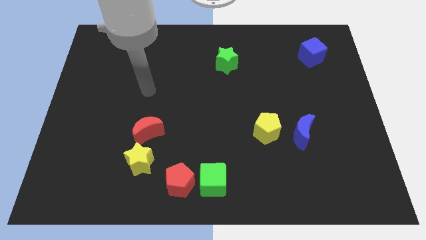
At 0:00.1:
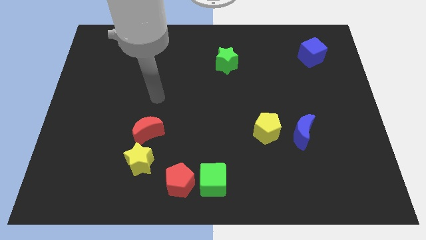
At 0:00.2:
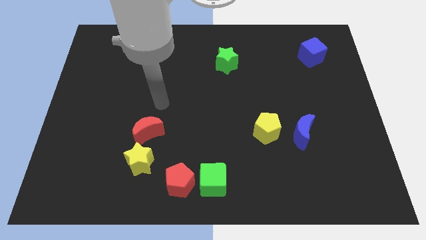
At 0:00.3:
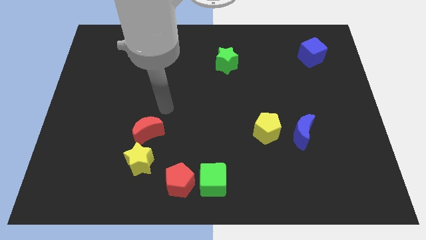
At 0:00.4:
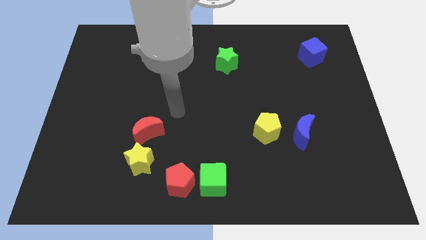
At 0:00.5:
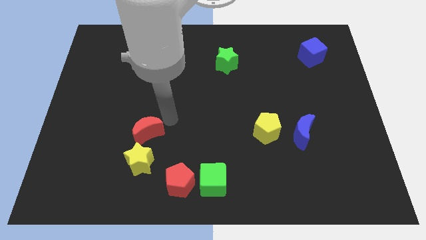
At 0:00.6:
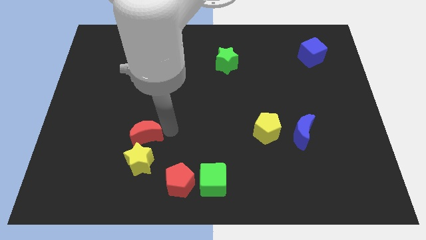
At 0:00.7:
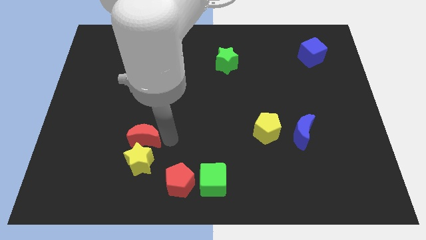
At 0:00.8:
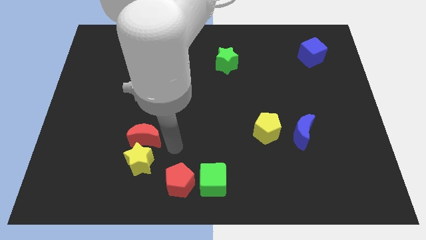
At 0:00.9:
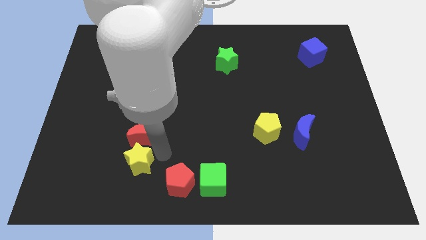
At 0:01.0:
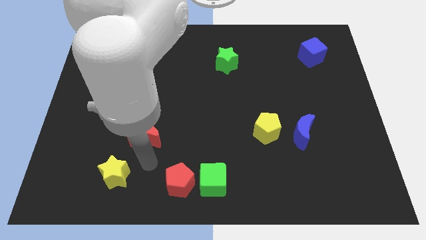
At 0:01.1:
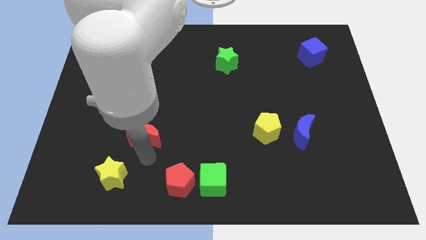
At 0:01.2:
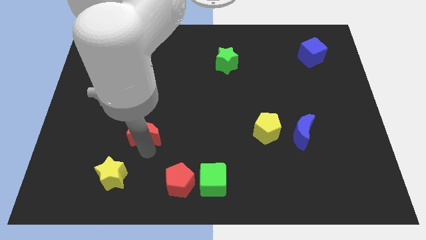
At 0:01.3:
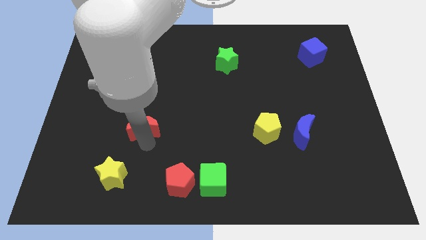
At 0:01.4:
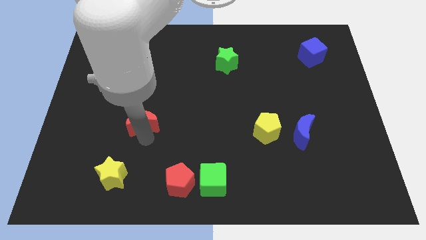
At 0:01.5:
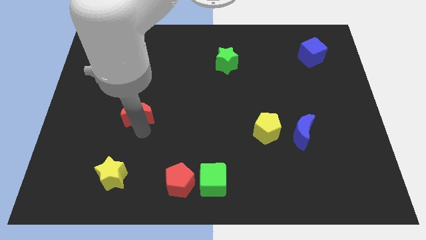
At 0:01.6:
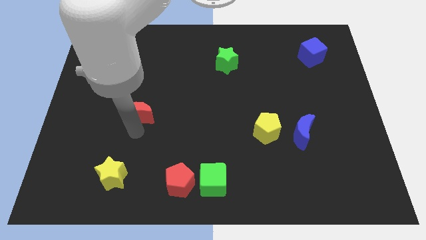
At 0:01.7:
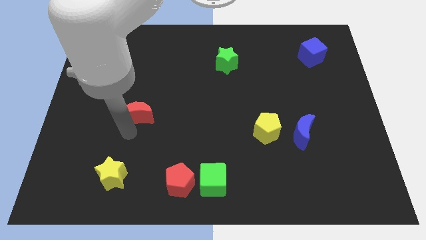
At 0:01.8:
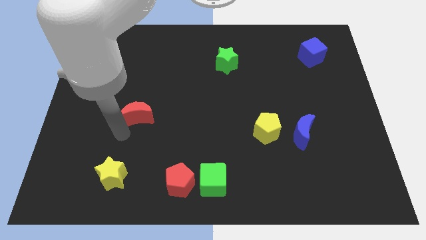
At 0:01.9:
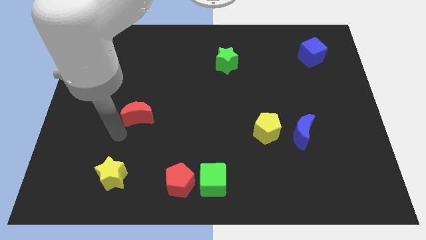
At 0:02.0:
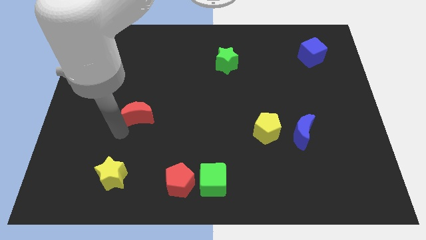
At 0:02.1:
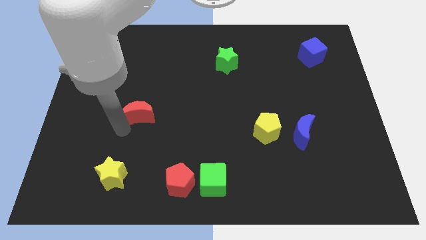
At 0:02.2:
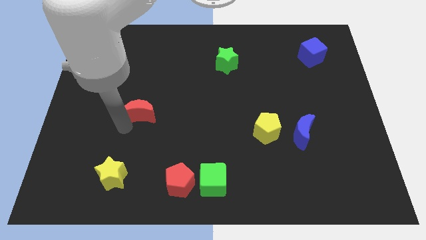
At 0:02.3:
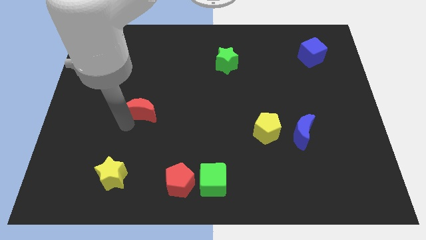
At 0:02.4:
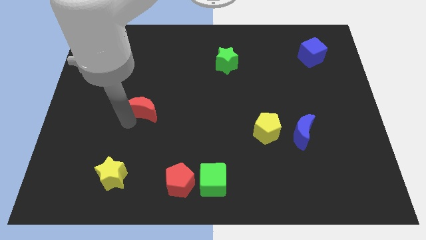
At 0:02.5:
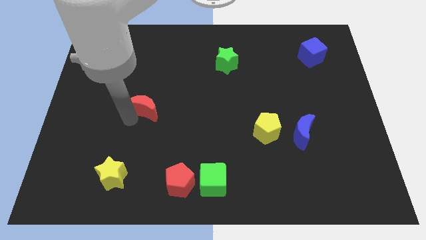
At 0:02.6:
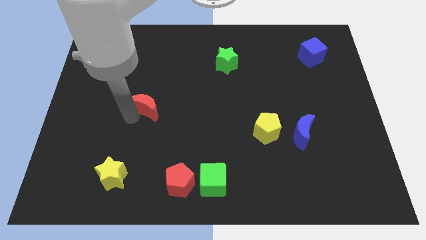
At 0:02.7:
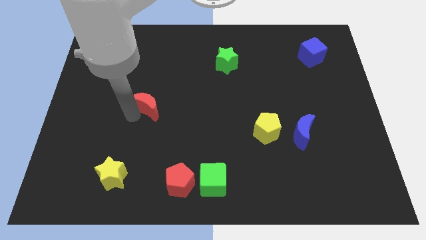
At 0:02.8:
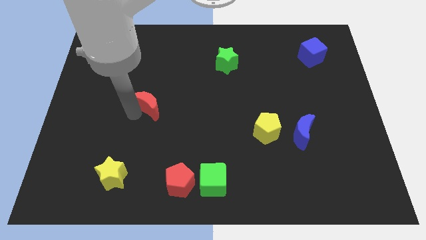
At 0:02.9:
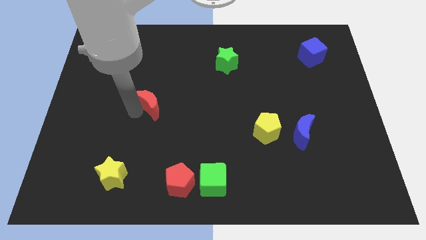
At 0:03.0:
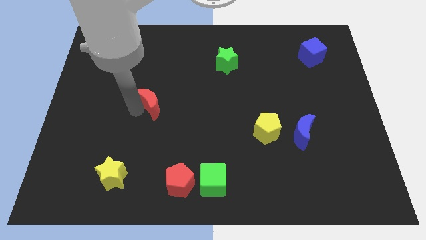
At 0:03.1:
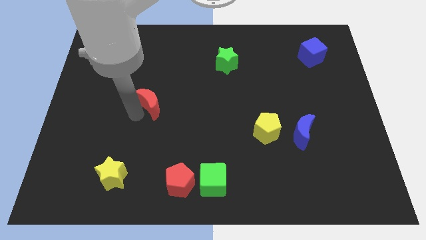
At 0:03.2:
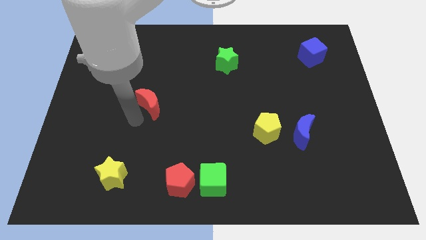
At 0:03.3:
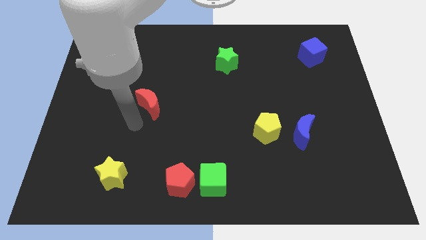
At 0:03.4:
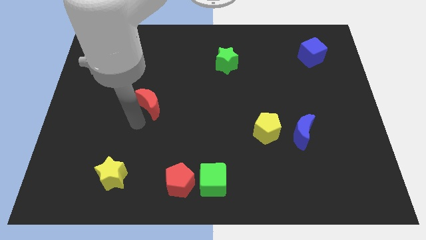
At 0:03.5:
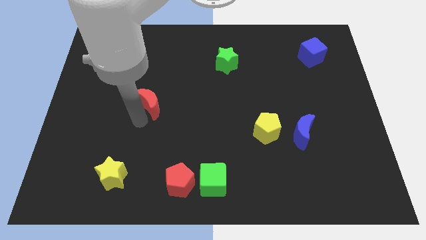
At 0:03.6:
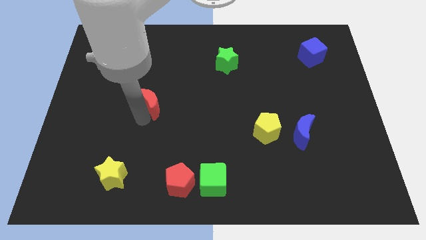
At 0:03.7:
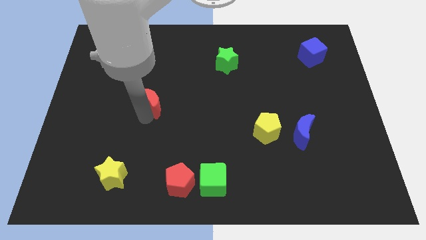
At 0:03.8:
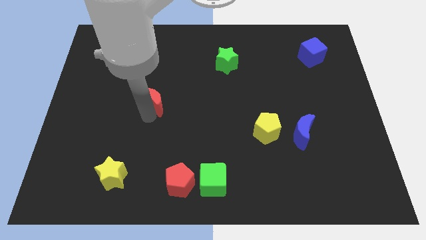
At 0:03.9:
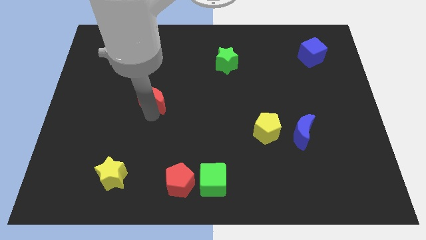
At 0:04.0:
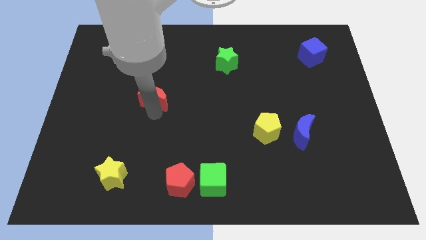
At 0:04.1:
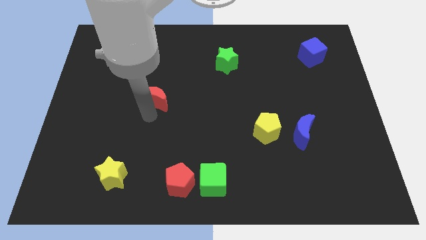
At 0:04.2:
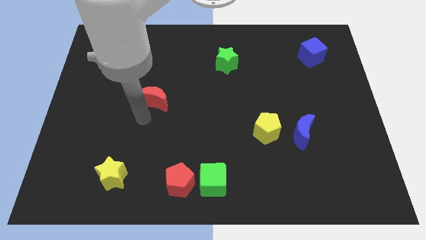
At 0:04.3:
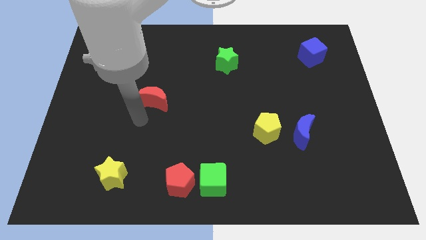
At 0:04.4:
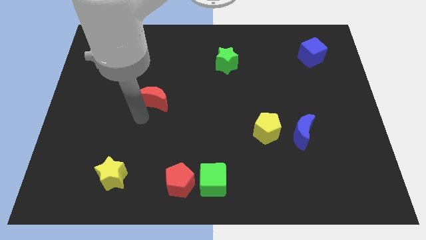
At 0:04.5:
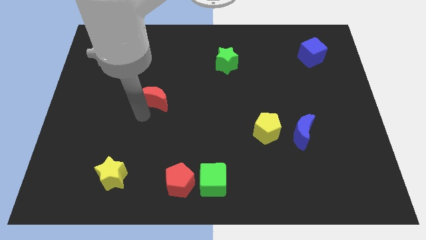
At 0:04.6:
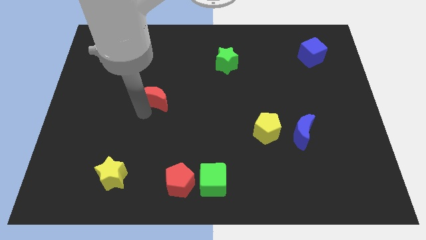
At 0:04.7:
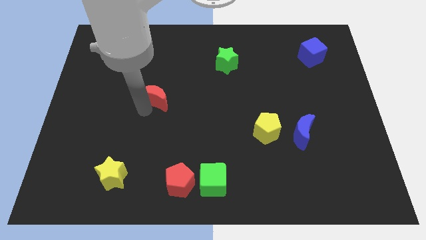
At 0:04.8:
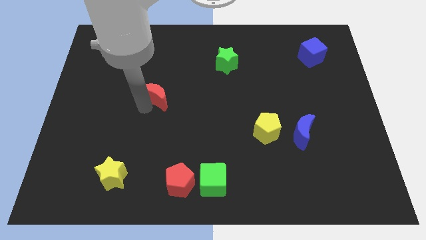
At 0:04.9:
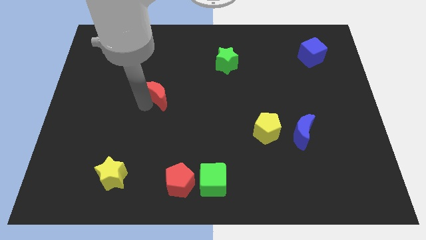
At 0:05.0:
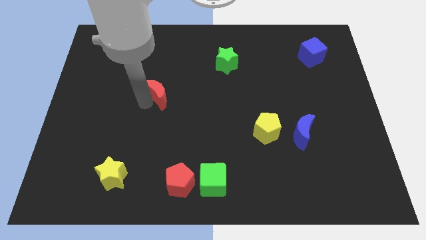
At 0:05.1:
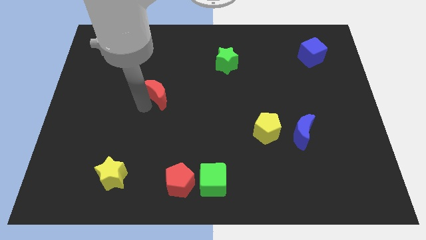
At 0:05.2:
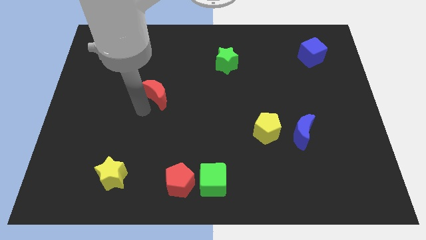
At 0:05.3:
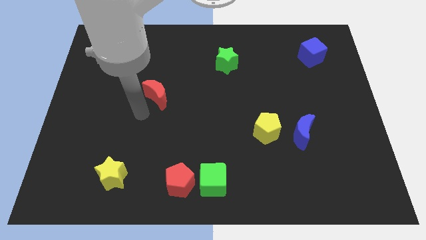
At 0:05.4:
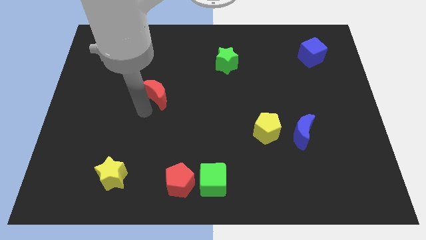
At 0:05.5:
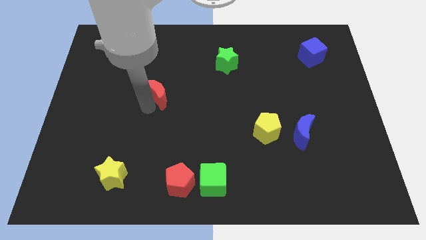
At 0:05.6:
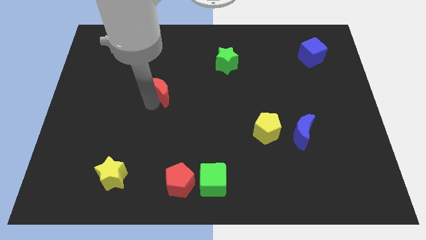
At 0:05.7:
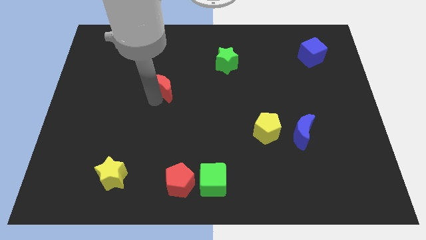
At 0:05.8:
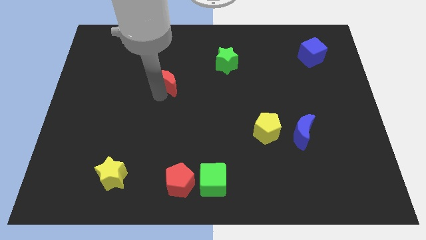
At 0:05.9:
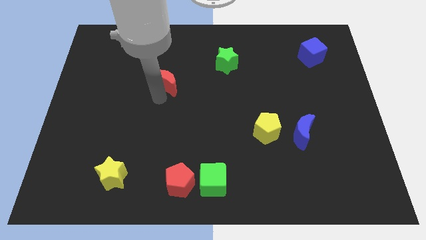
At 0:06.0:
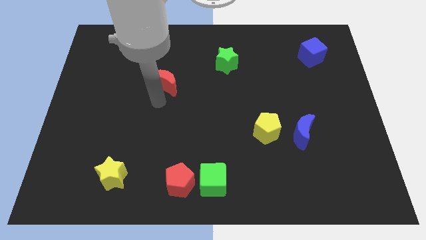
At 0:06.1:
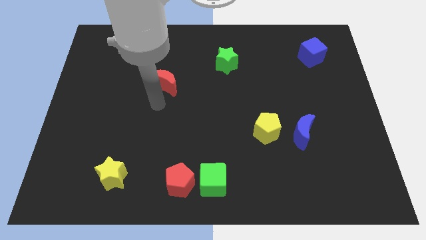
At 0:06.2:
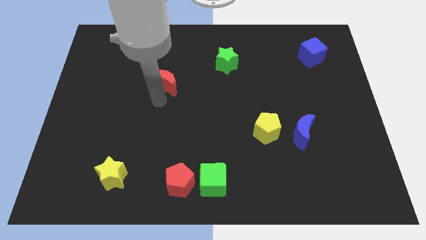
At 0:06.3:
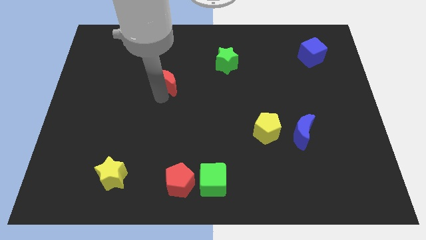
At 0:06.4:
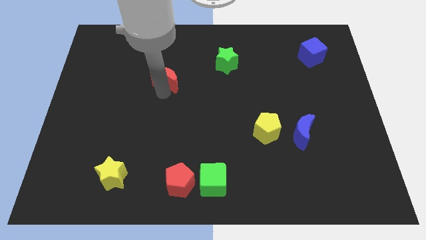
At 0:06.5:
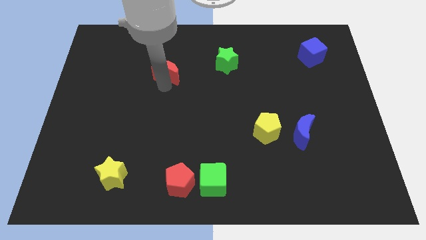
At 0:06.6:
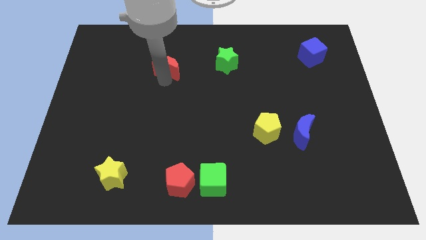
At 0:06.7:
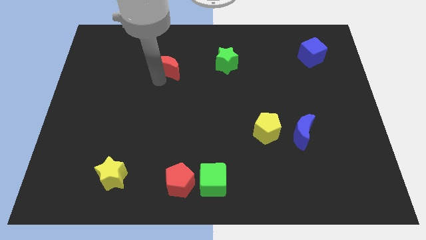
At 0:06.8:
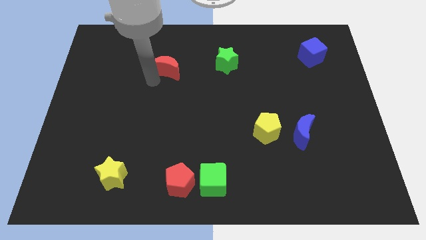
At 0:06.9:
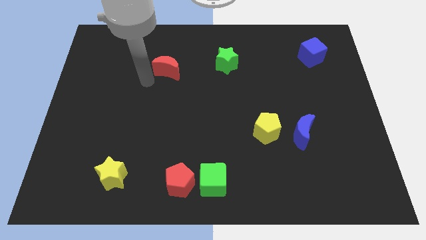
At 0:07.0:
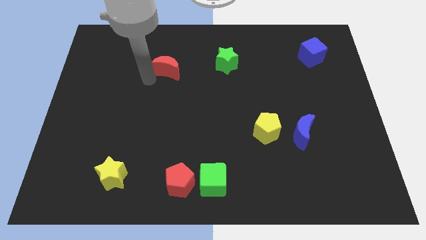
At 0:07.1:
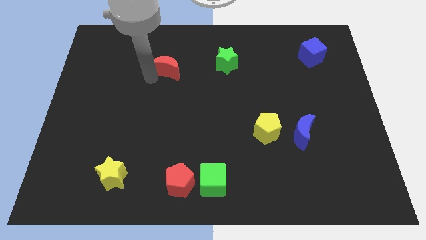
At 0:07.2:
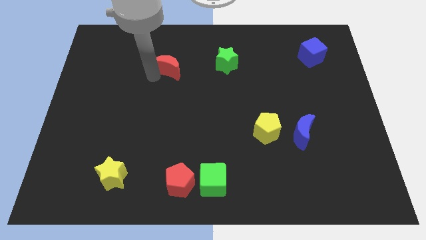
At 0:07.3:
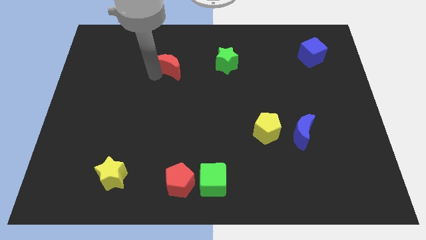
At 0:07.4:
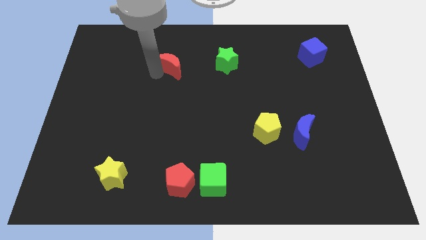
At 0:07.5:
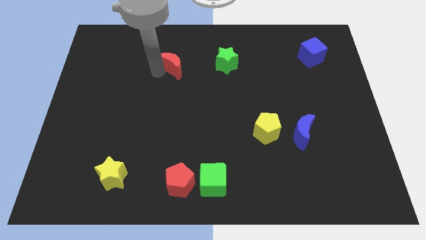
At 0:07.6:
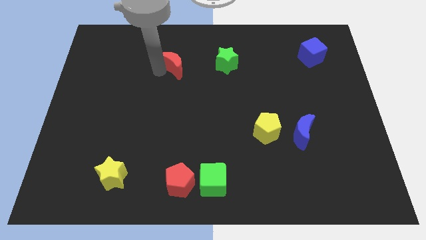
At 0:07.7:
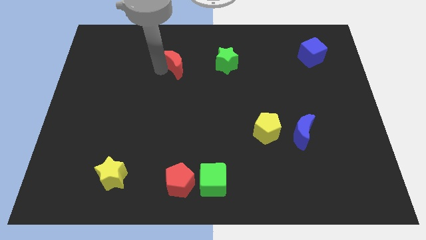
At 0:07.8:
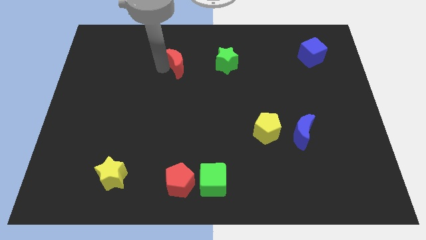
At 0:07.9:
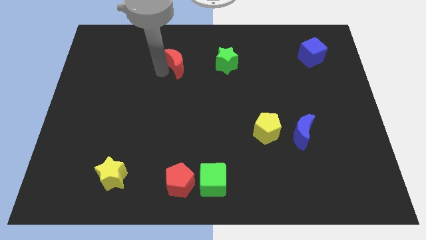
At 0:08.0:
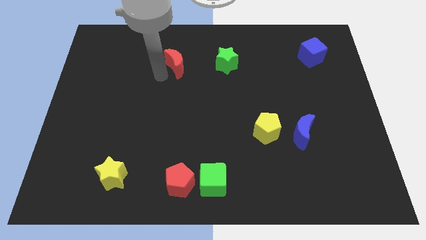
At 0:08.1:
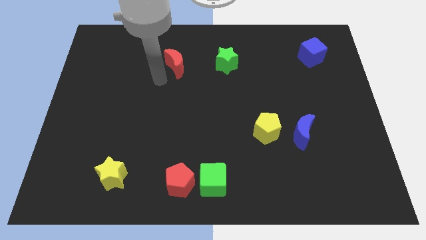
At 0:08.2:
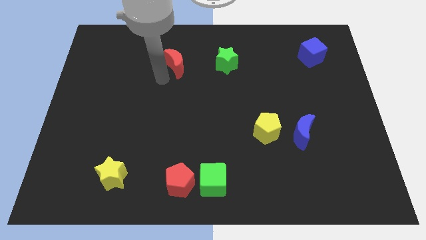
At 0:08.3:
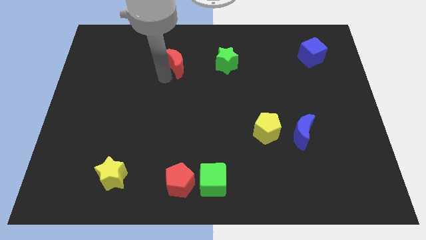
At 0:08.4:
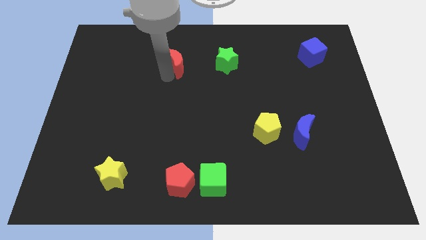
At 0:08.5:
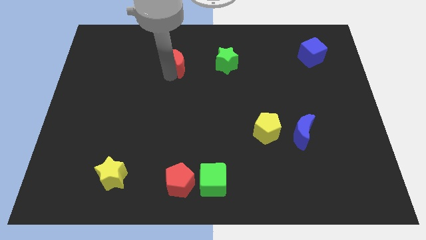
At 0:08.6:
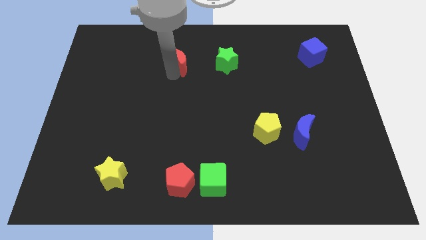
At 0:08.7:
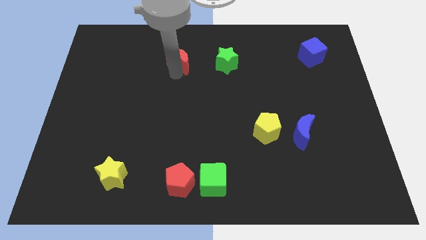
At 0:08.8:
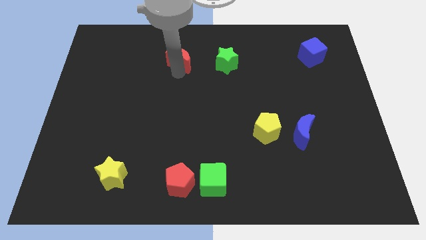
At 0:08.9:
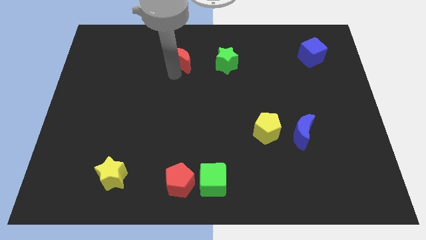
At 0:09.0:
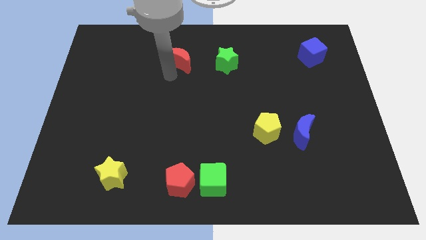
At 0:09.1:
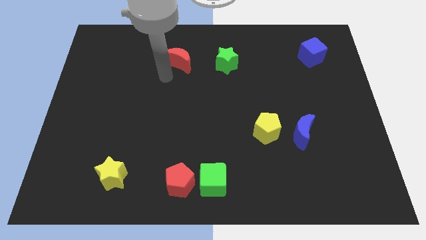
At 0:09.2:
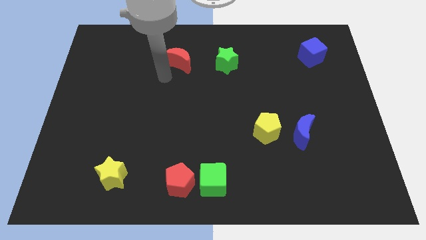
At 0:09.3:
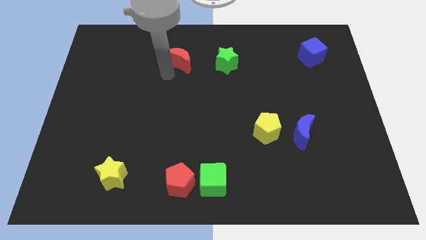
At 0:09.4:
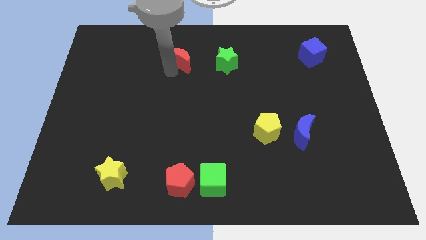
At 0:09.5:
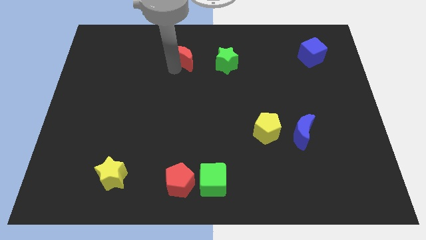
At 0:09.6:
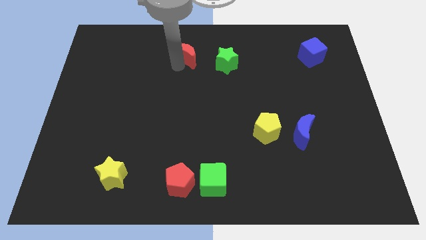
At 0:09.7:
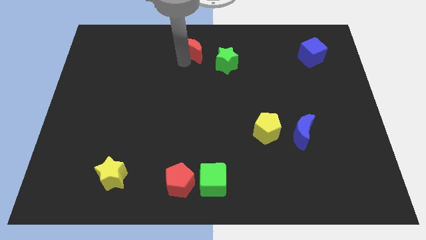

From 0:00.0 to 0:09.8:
move the red moon to the top
